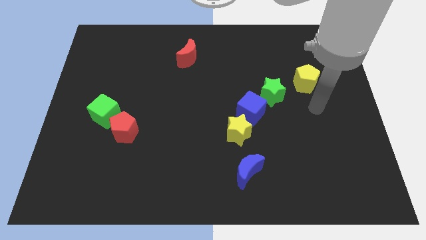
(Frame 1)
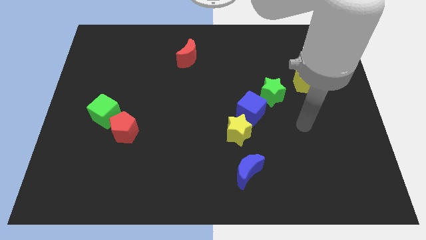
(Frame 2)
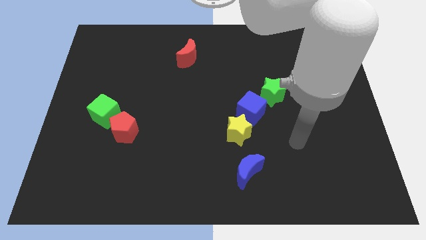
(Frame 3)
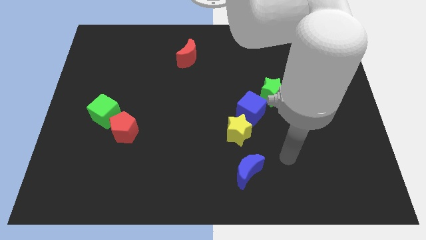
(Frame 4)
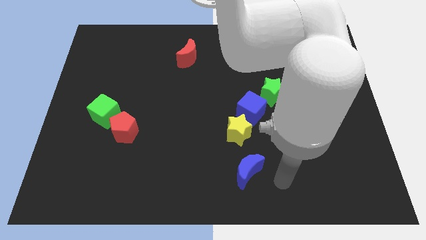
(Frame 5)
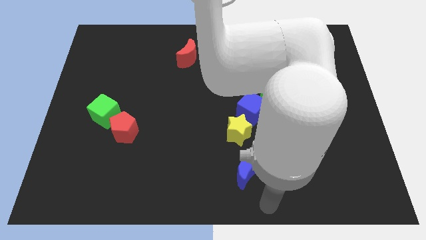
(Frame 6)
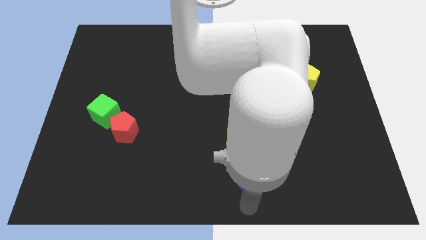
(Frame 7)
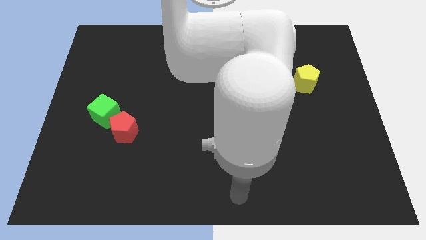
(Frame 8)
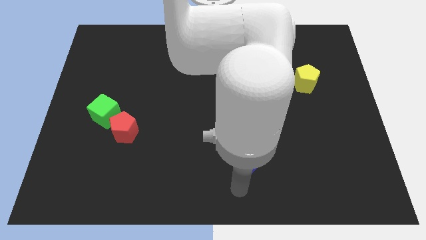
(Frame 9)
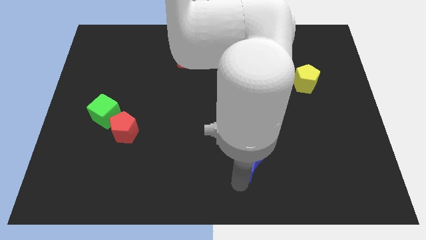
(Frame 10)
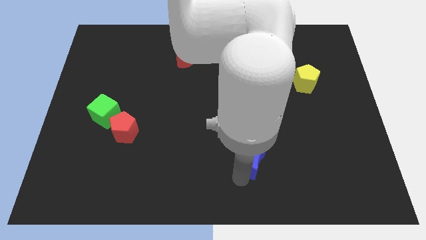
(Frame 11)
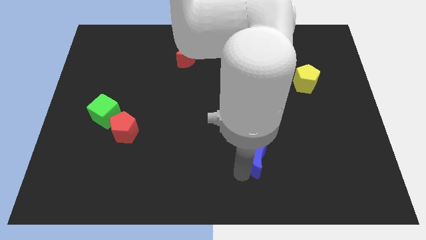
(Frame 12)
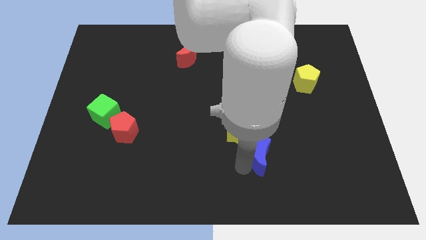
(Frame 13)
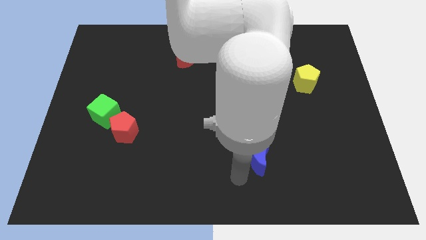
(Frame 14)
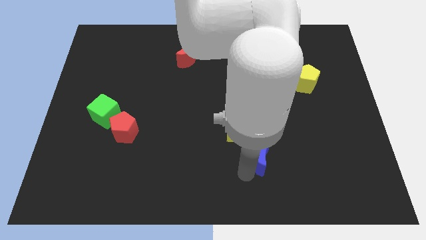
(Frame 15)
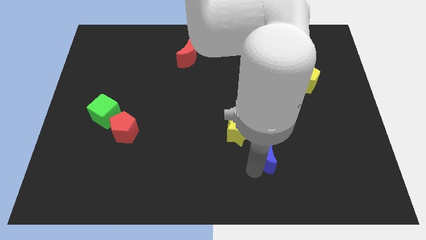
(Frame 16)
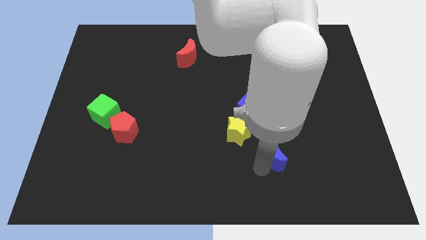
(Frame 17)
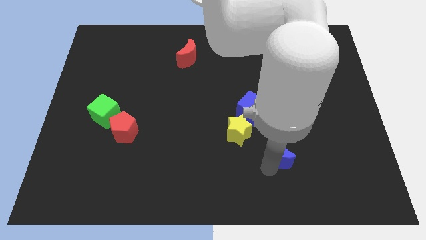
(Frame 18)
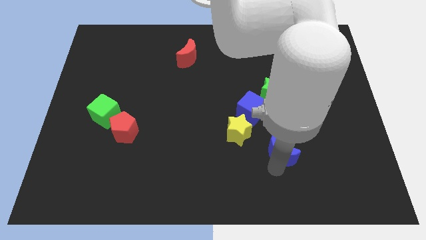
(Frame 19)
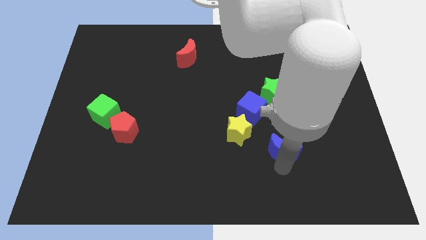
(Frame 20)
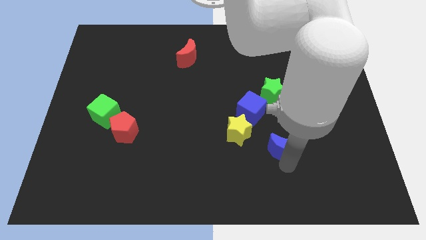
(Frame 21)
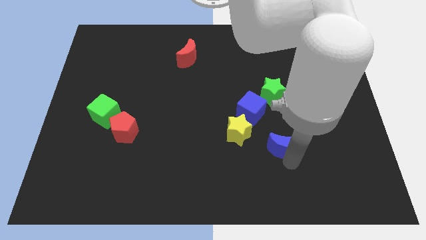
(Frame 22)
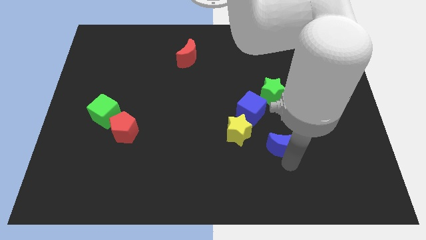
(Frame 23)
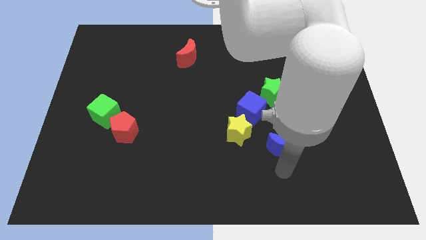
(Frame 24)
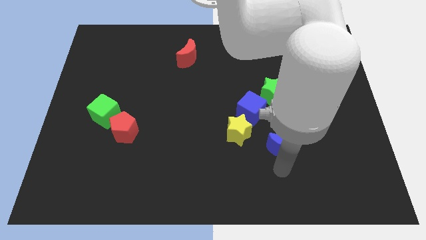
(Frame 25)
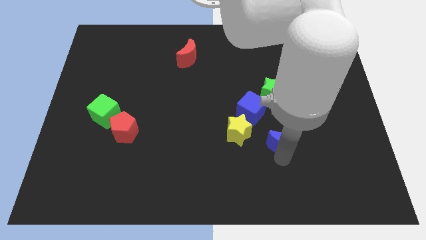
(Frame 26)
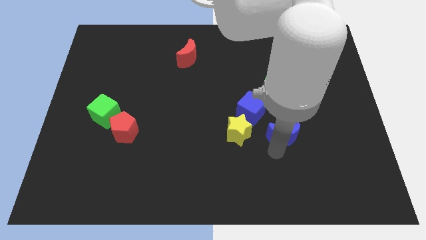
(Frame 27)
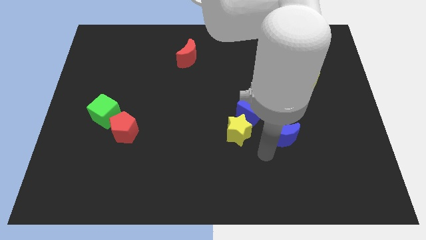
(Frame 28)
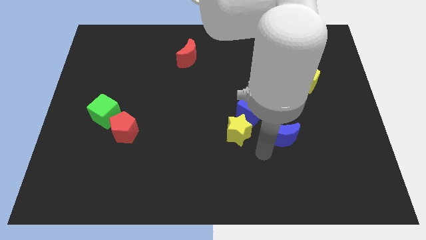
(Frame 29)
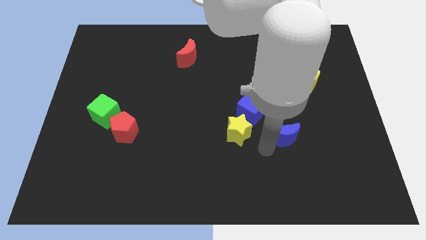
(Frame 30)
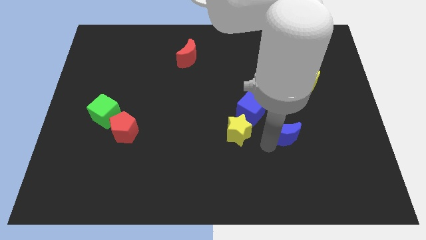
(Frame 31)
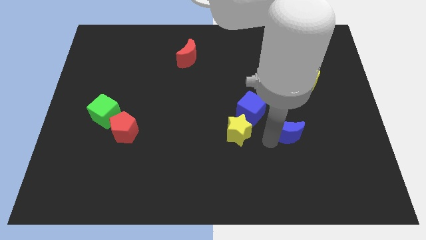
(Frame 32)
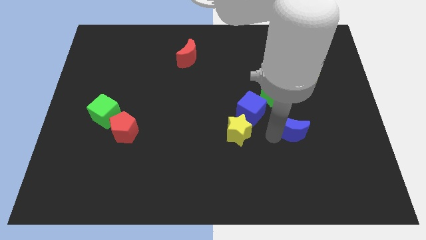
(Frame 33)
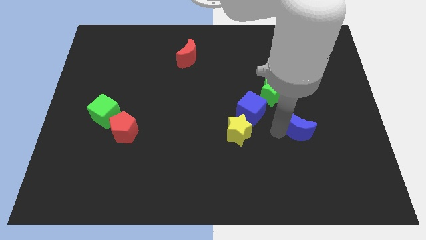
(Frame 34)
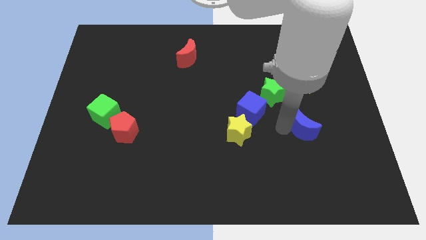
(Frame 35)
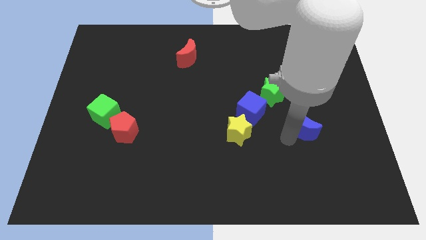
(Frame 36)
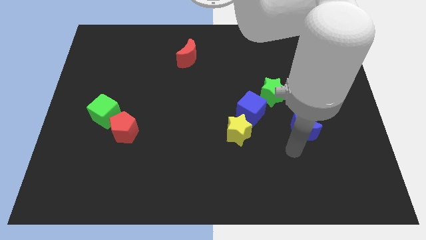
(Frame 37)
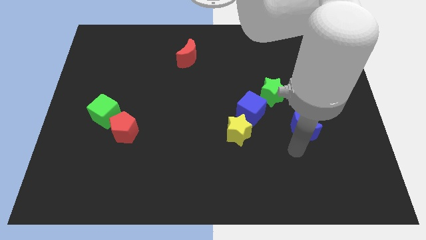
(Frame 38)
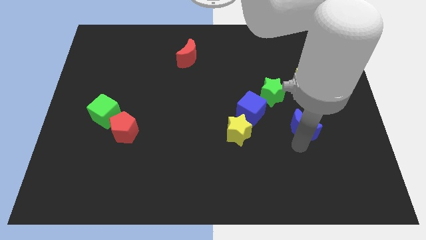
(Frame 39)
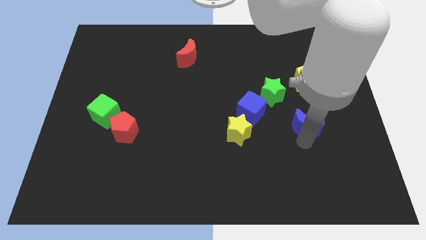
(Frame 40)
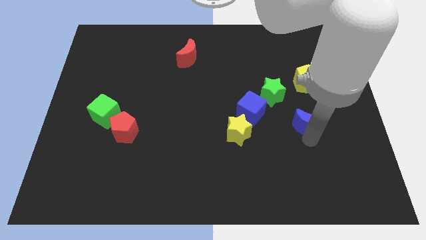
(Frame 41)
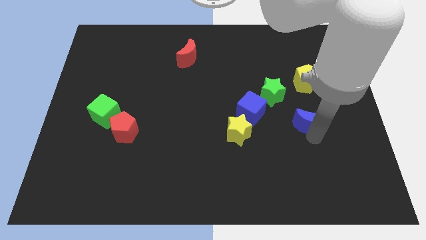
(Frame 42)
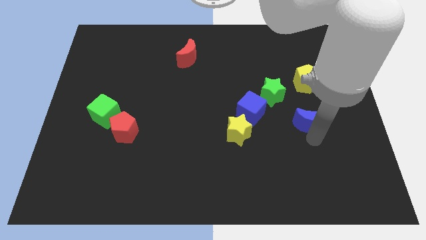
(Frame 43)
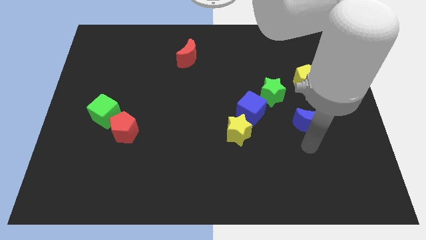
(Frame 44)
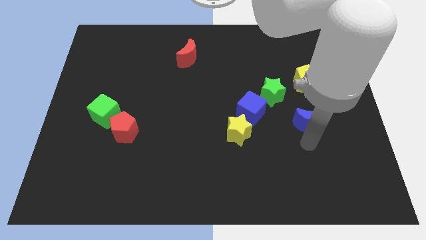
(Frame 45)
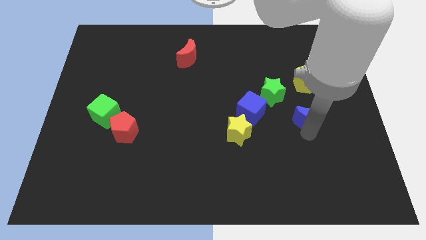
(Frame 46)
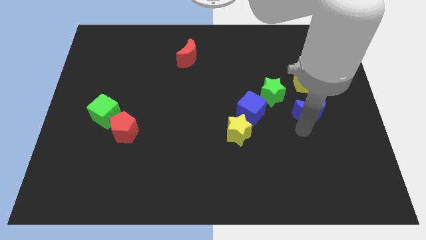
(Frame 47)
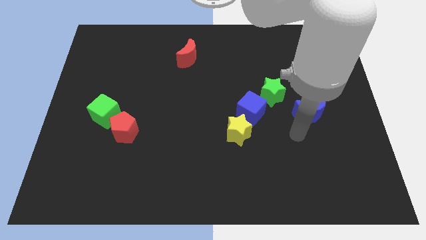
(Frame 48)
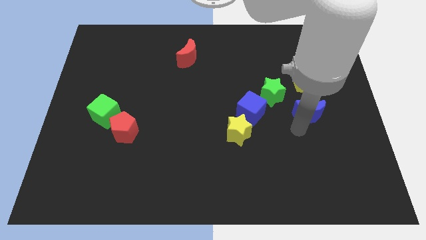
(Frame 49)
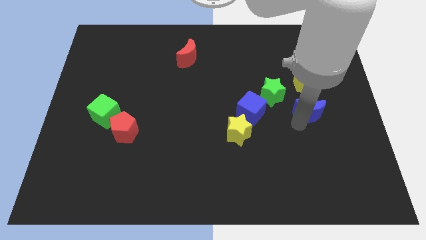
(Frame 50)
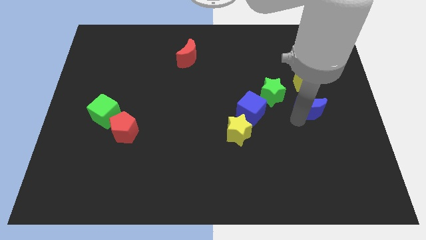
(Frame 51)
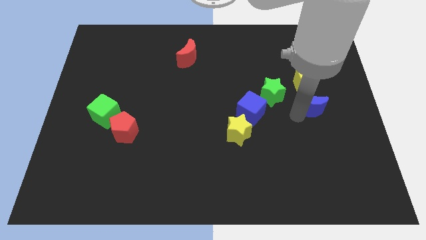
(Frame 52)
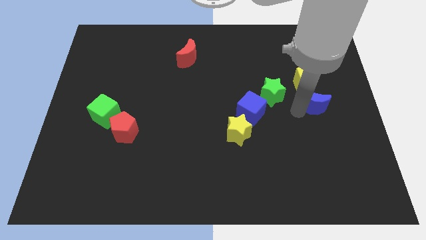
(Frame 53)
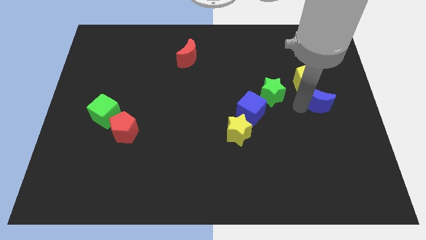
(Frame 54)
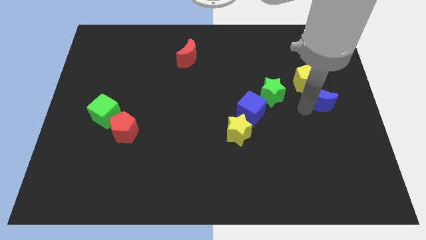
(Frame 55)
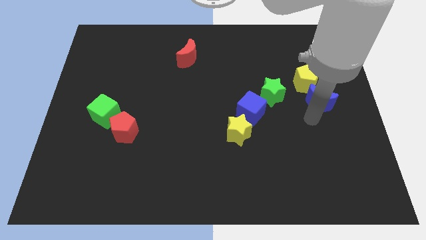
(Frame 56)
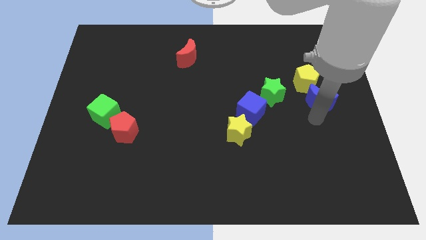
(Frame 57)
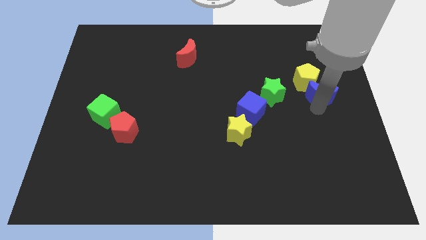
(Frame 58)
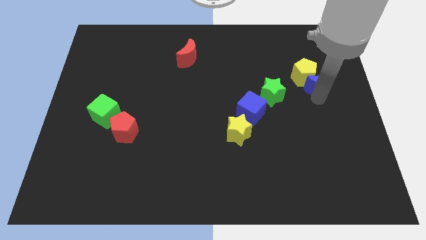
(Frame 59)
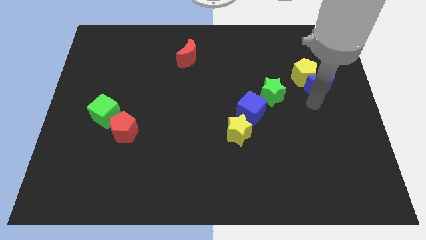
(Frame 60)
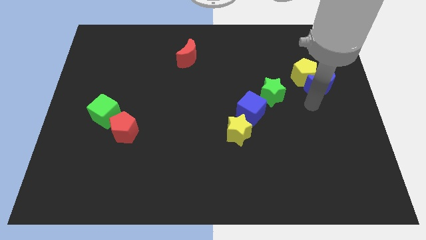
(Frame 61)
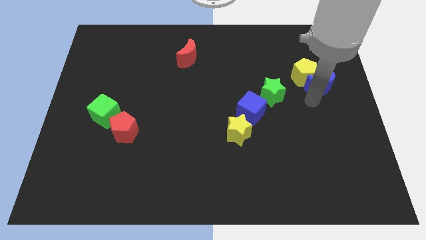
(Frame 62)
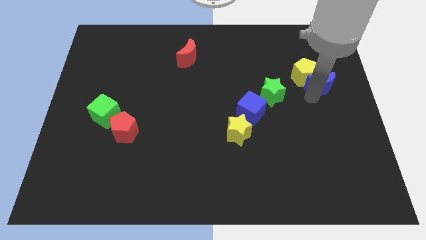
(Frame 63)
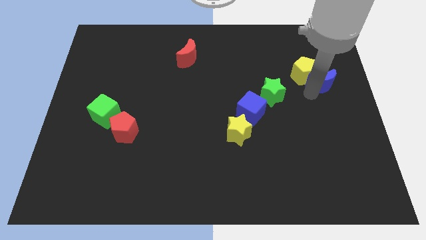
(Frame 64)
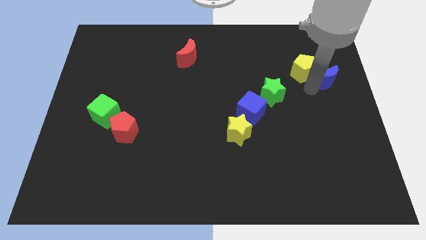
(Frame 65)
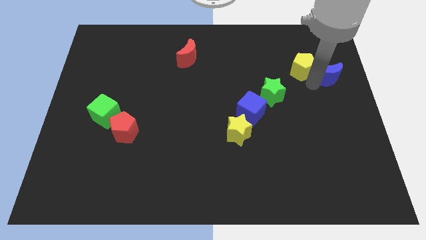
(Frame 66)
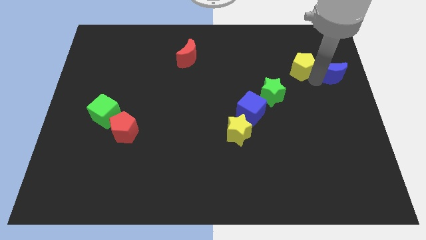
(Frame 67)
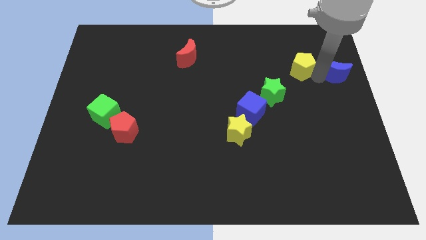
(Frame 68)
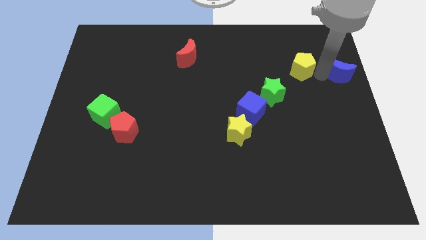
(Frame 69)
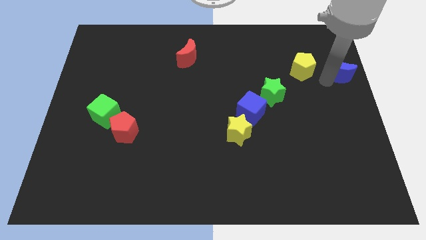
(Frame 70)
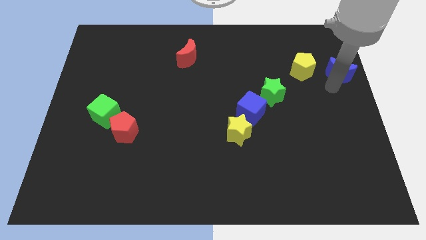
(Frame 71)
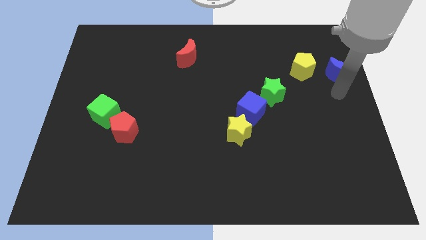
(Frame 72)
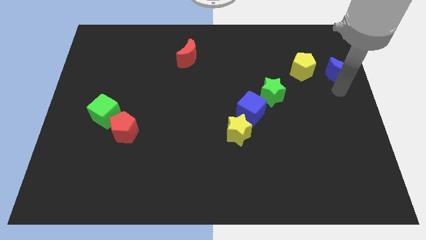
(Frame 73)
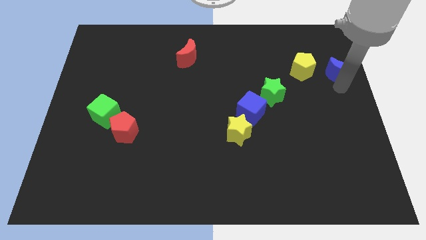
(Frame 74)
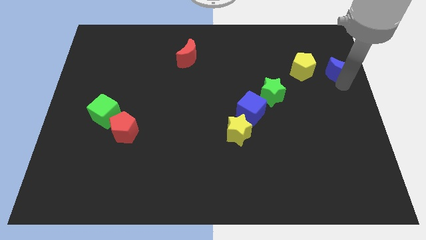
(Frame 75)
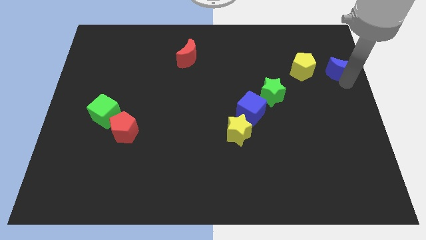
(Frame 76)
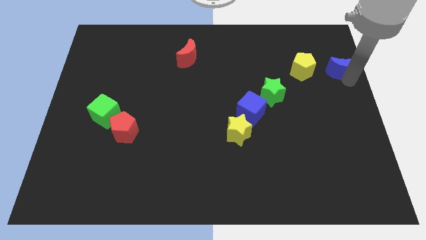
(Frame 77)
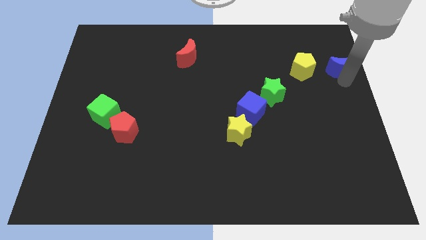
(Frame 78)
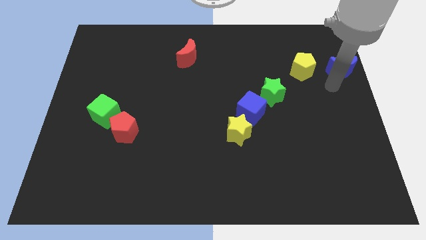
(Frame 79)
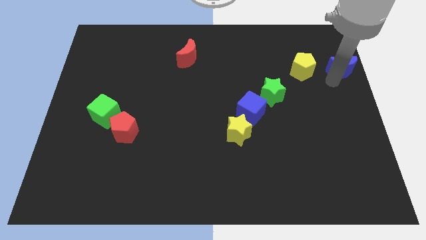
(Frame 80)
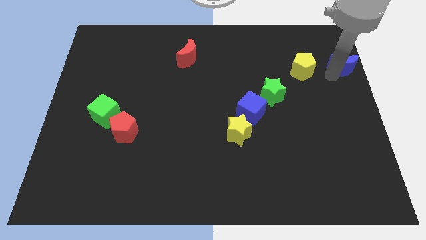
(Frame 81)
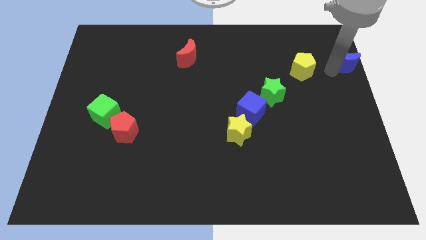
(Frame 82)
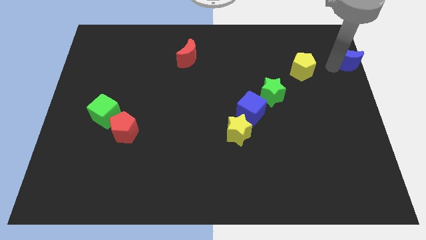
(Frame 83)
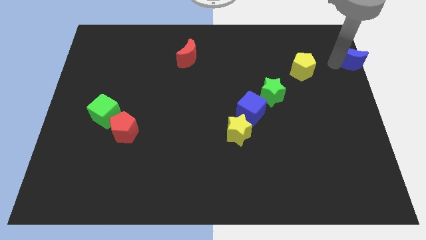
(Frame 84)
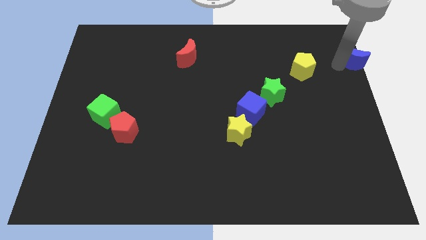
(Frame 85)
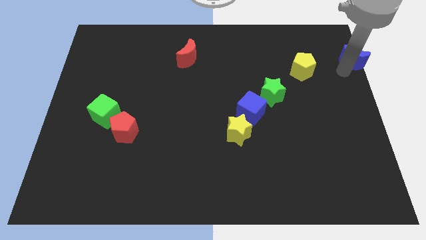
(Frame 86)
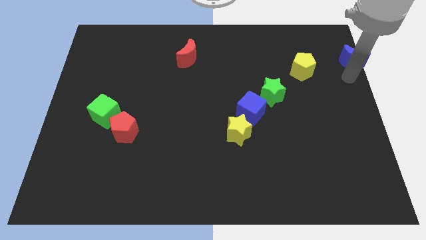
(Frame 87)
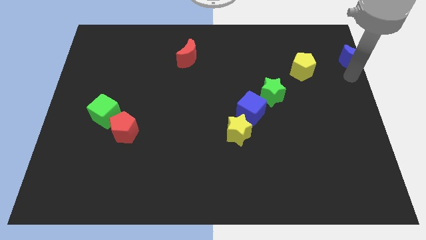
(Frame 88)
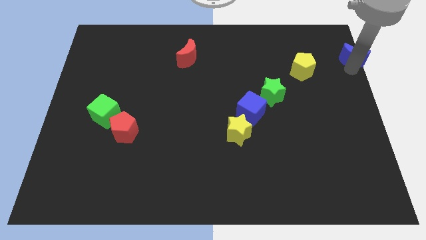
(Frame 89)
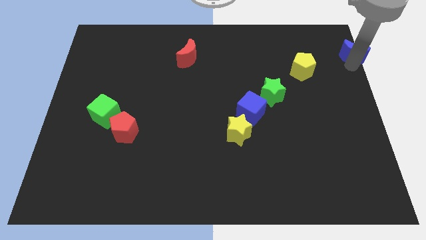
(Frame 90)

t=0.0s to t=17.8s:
move the blue moon to the top right
